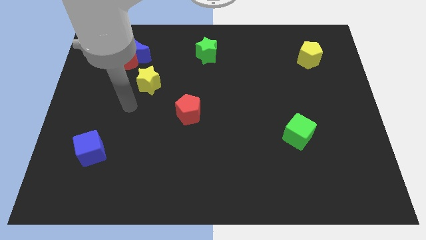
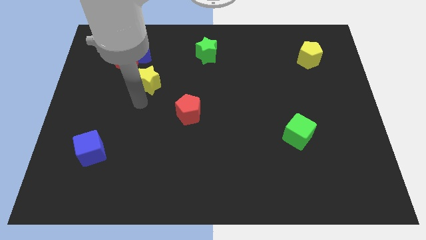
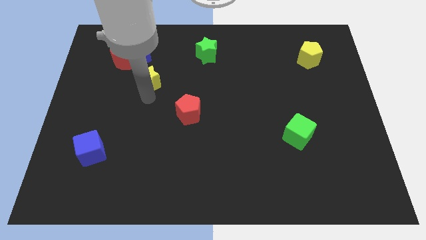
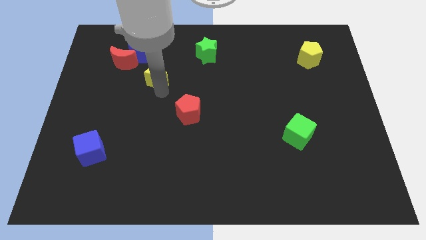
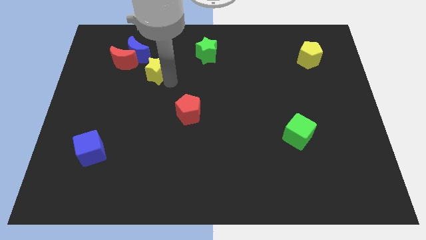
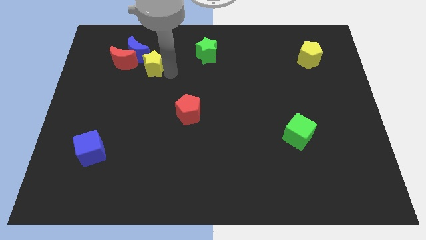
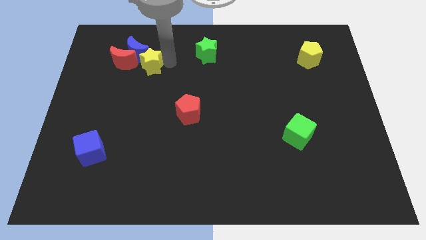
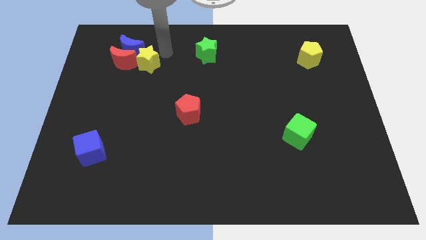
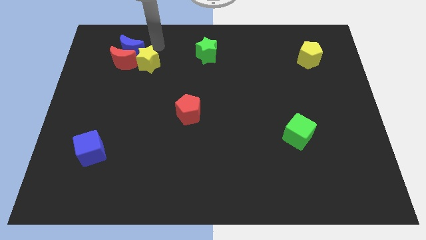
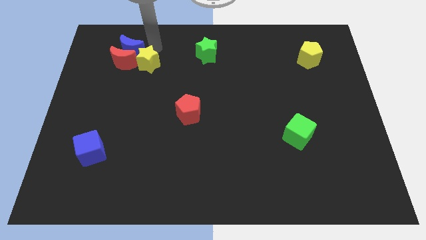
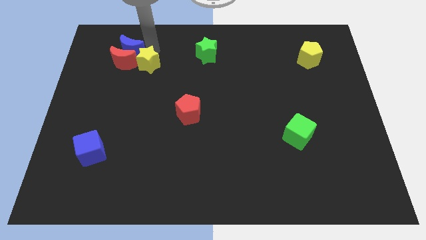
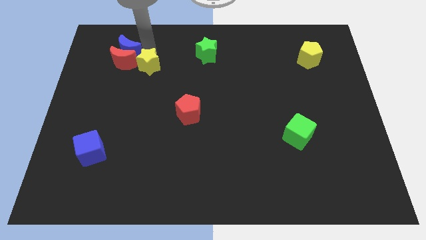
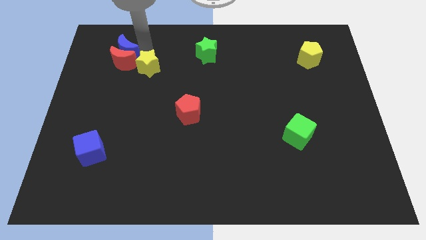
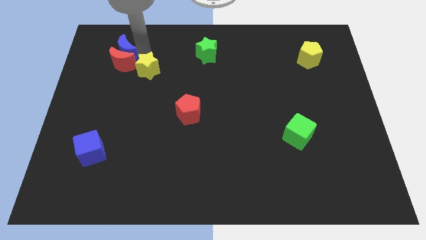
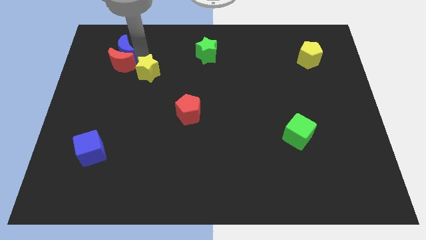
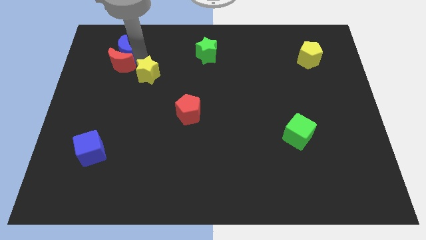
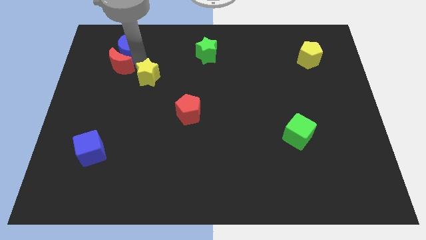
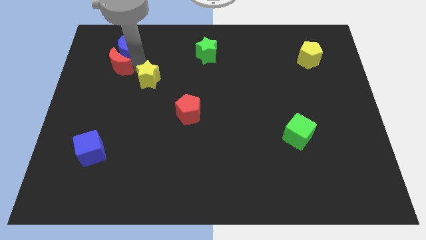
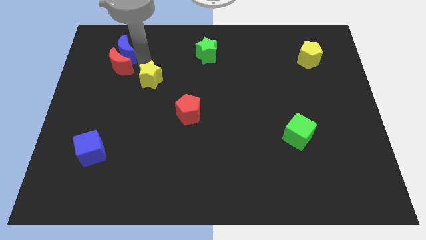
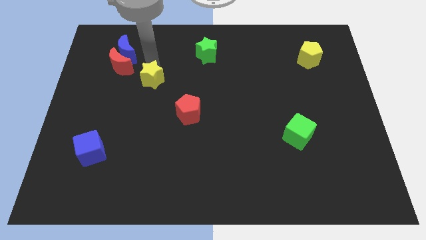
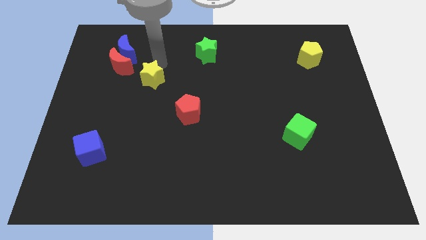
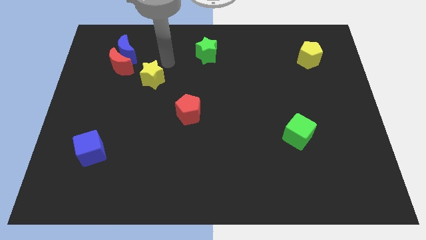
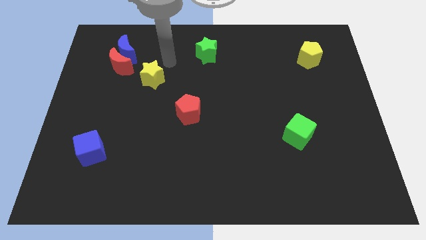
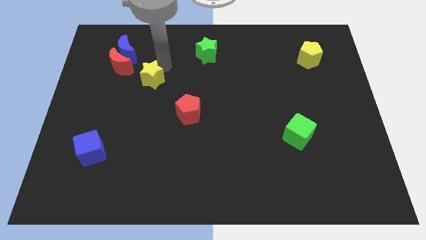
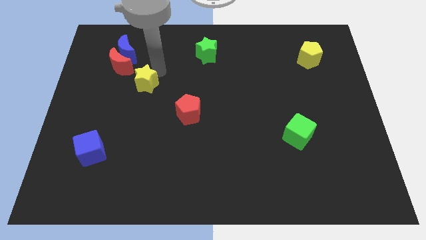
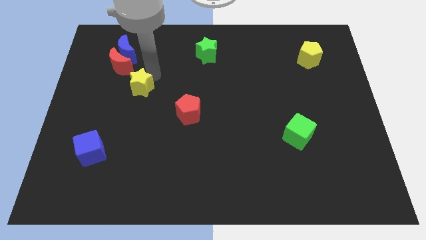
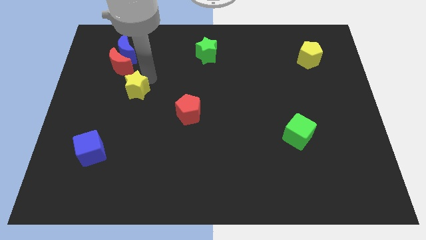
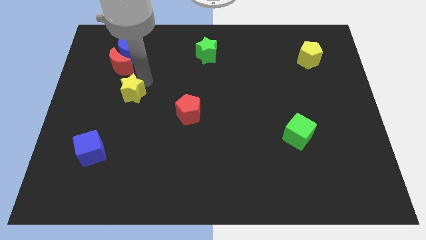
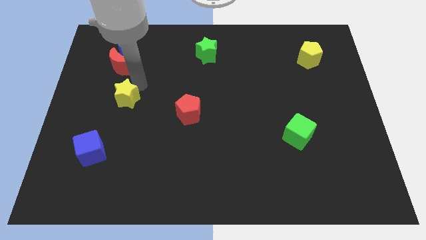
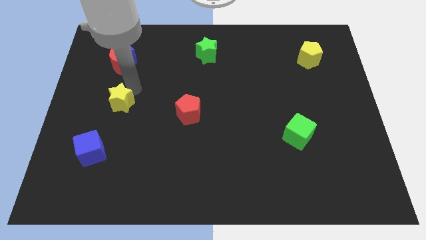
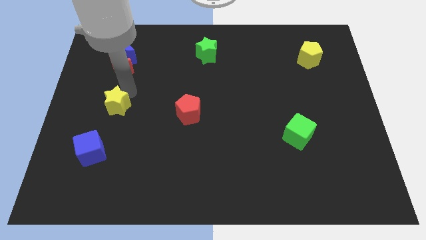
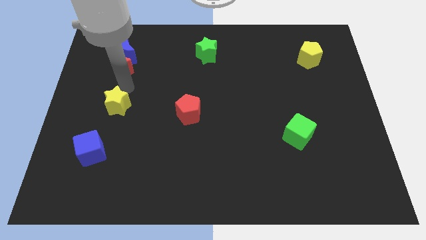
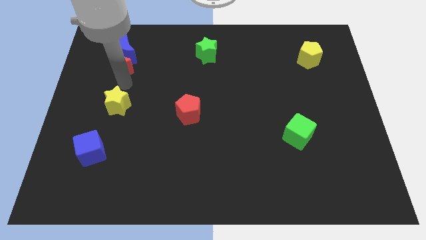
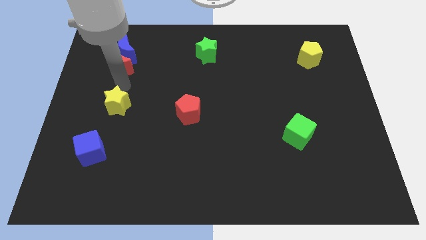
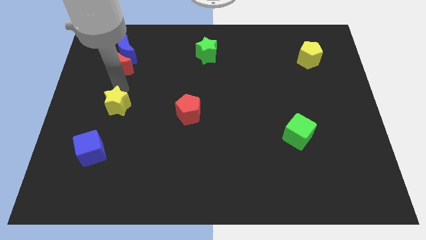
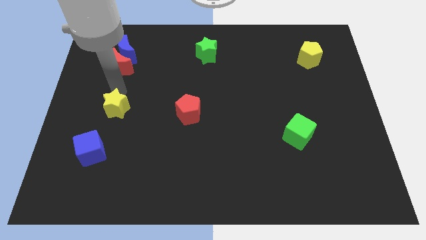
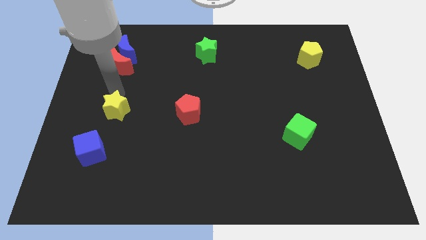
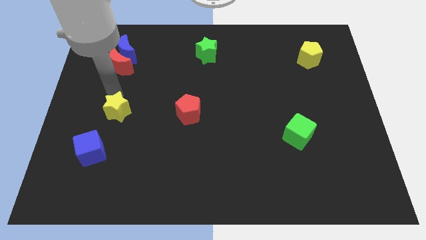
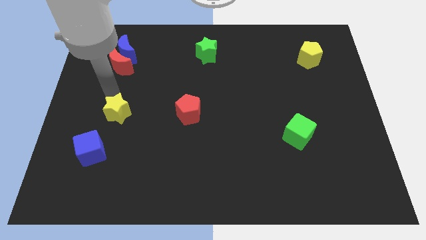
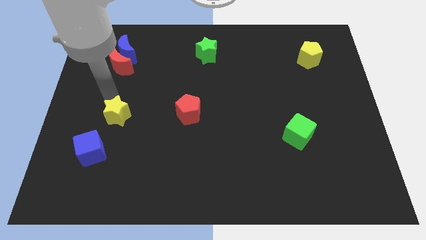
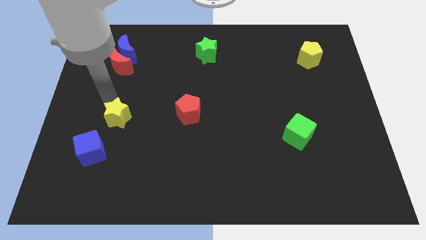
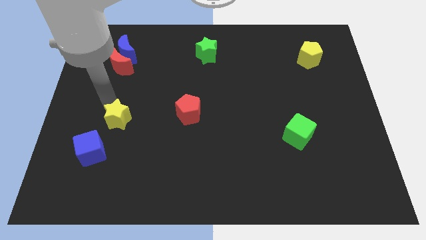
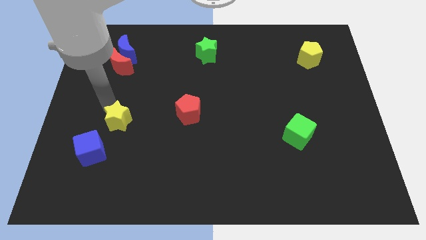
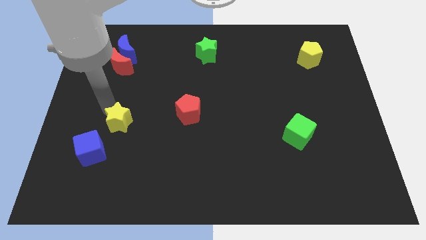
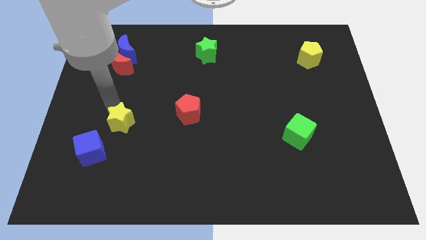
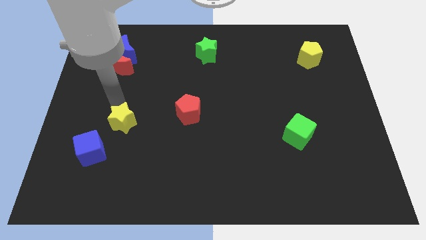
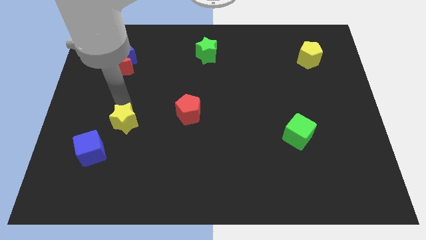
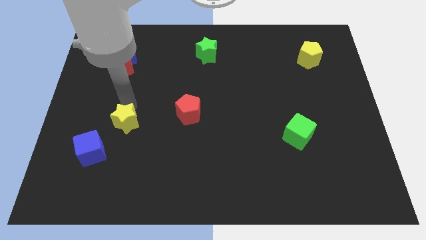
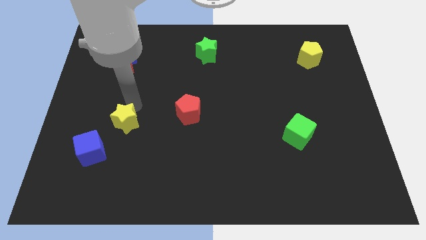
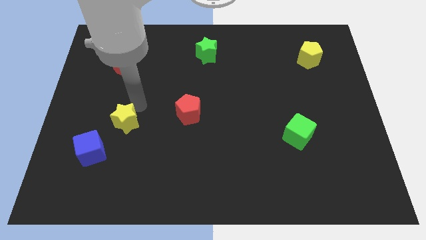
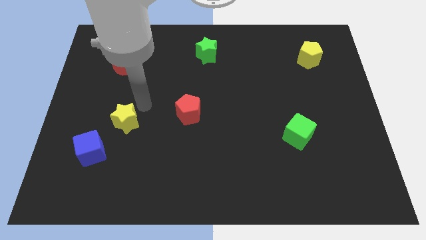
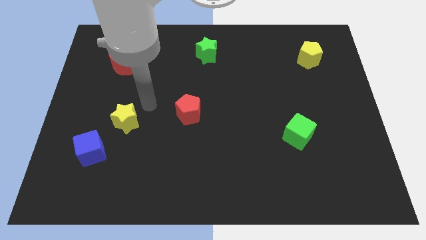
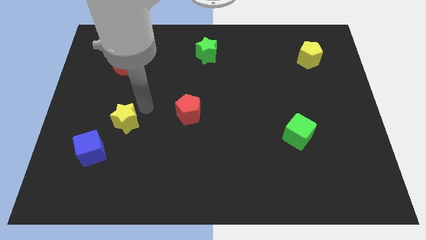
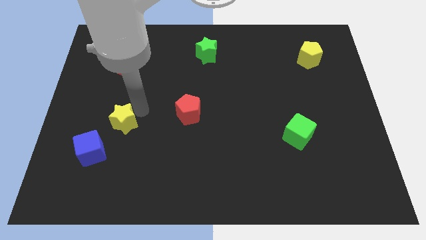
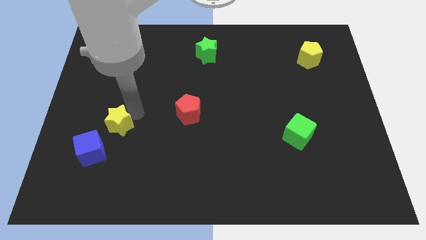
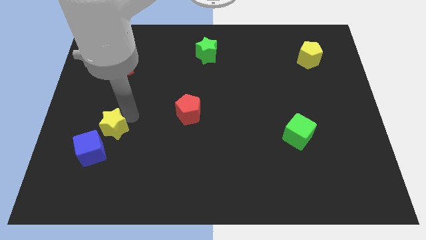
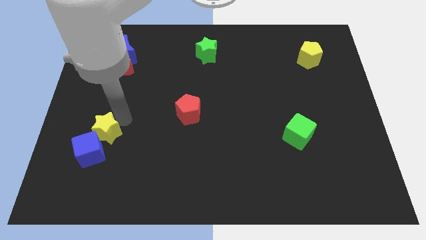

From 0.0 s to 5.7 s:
slide the yellow star towards the blue cube

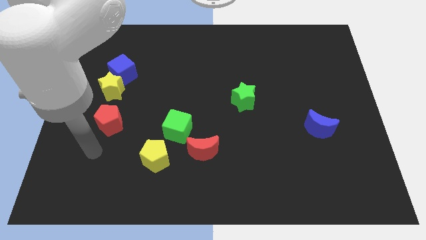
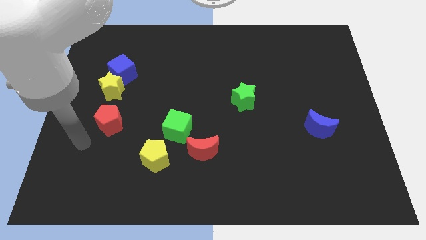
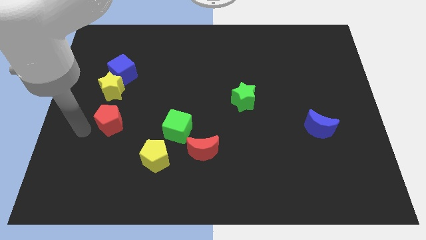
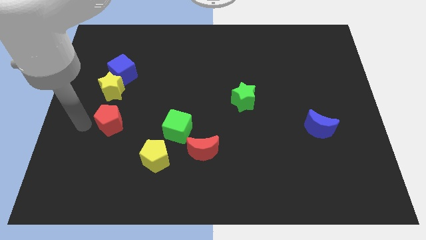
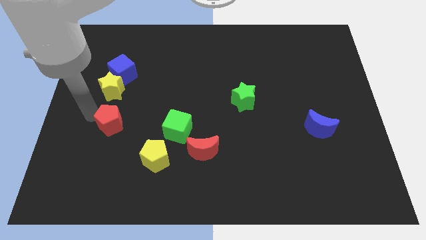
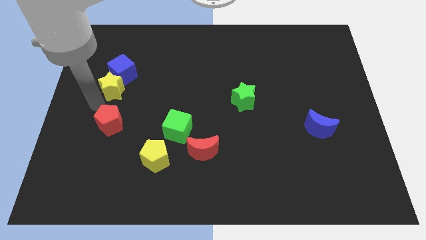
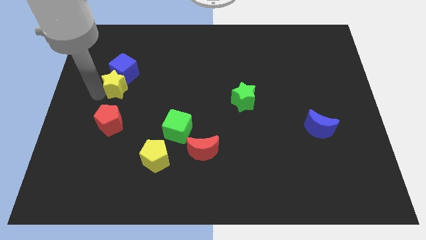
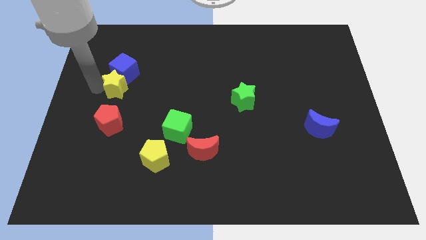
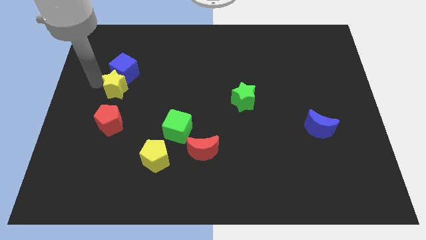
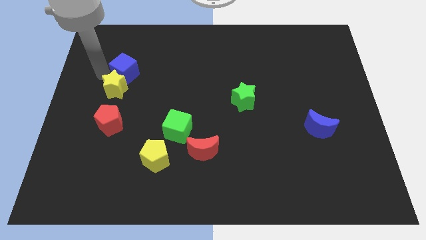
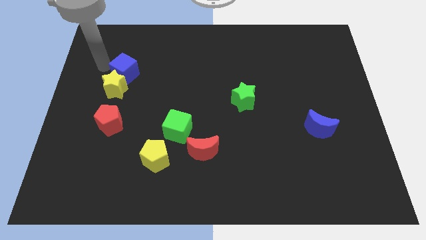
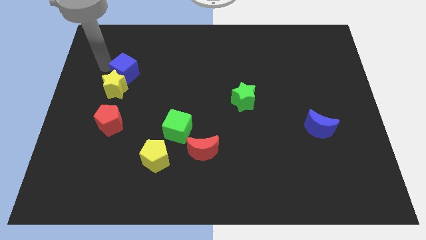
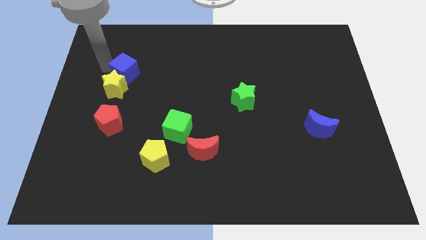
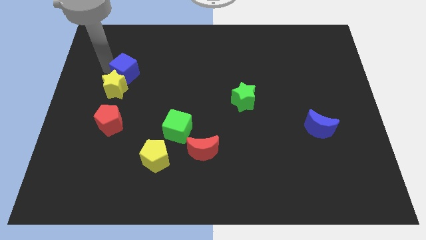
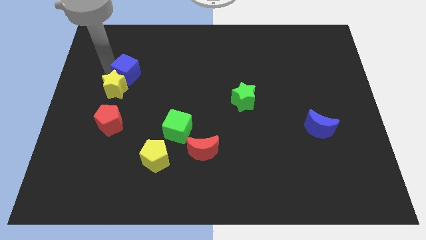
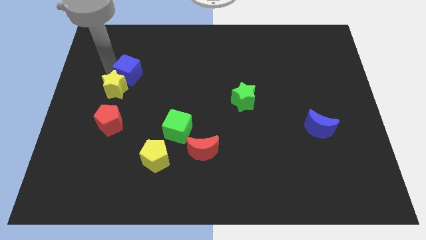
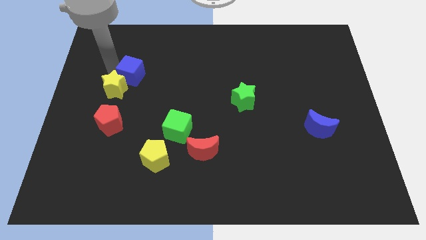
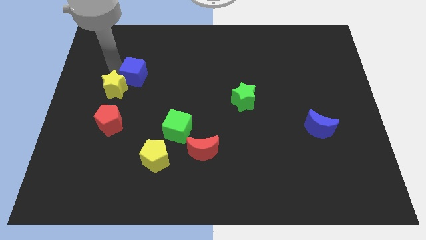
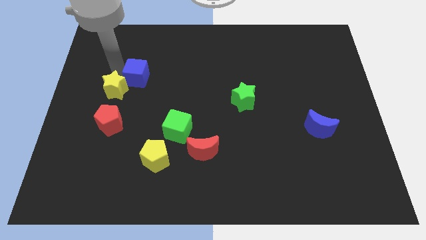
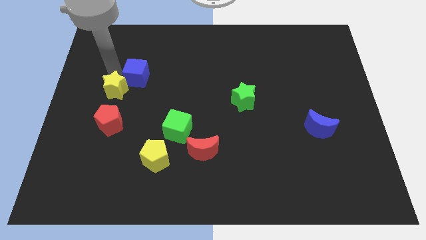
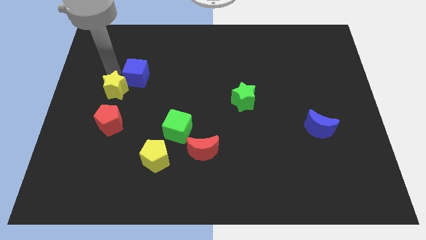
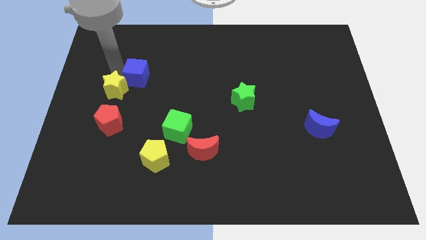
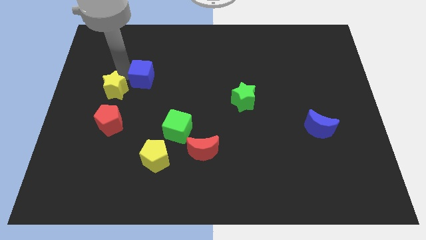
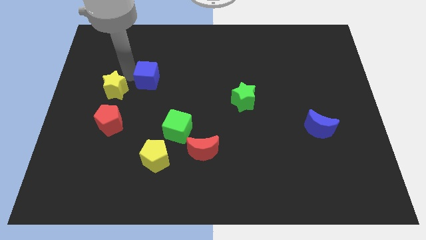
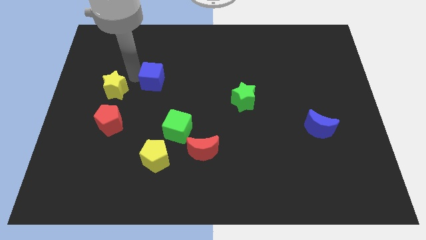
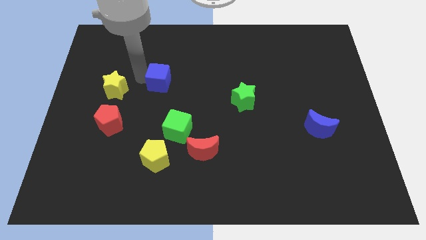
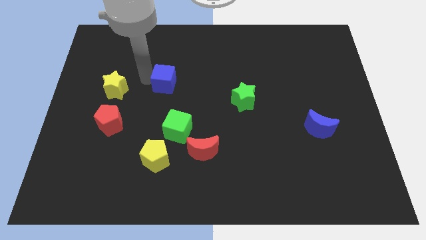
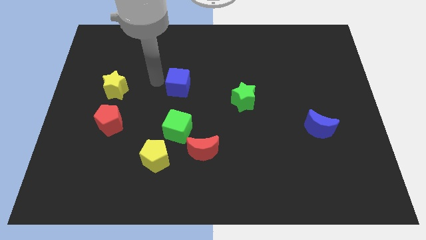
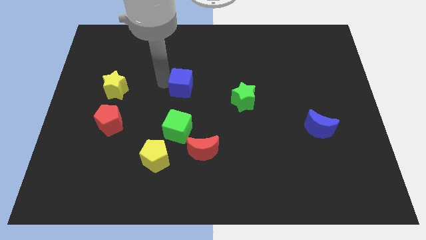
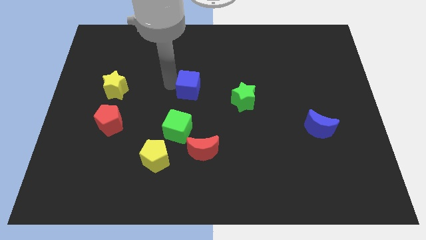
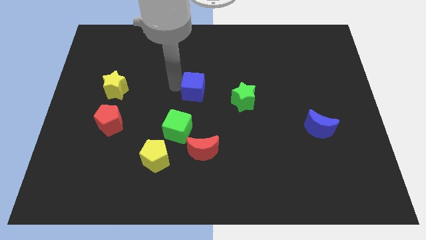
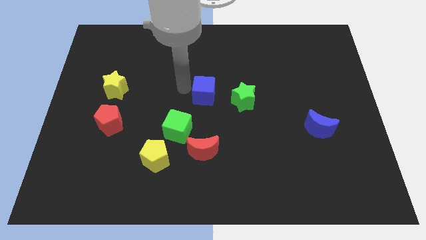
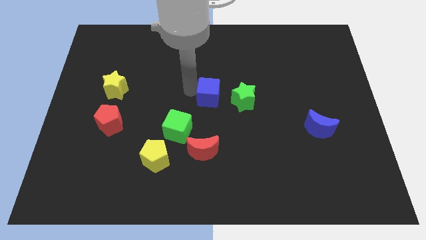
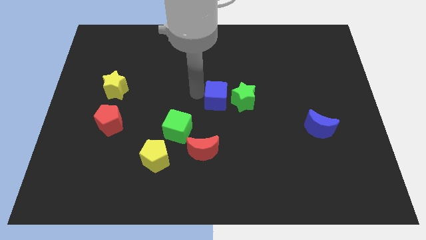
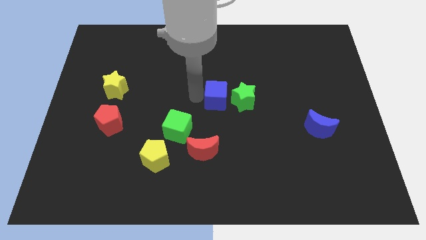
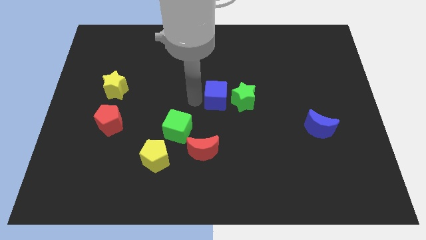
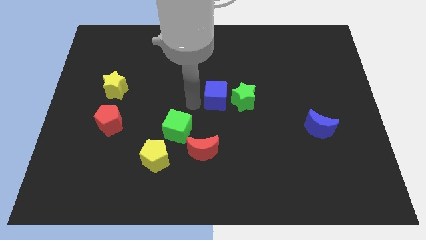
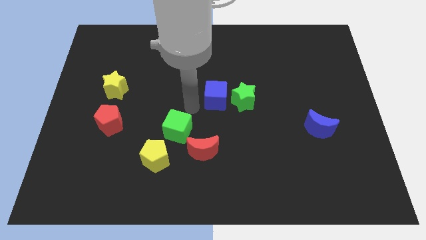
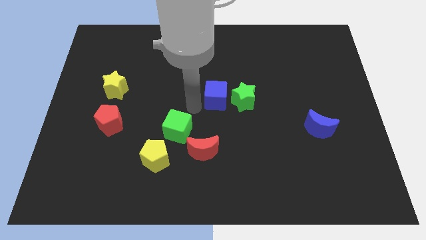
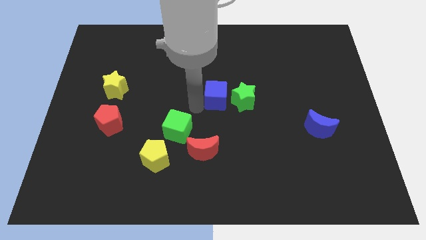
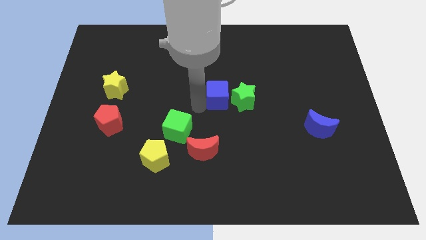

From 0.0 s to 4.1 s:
put the blue cube next to the green star
